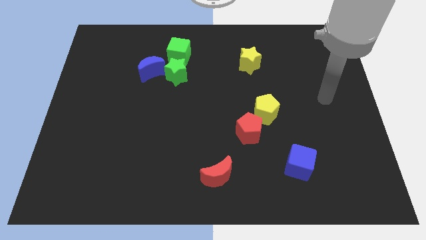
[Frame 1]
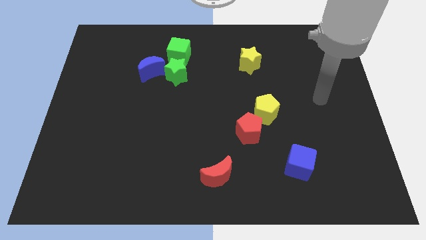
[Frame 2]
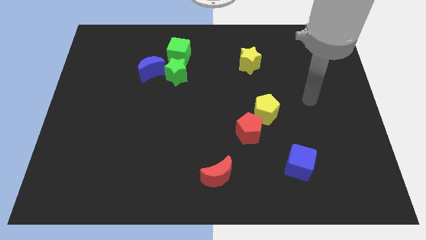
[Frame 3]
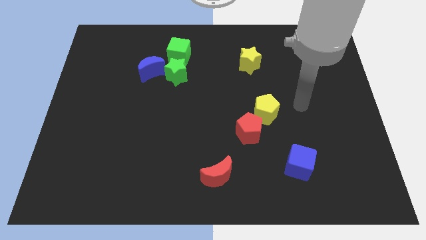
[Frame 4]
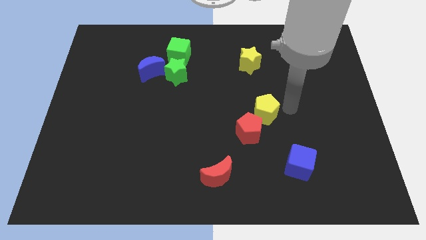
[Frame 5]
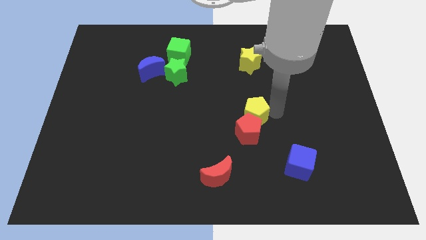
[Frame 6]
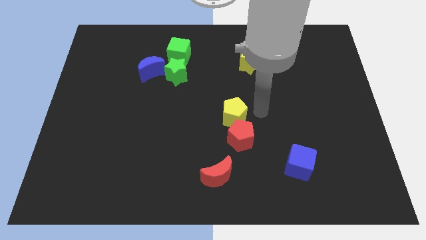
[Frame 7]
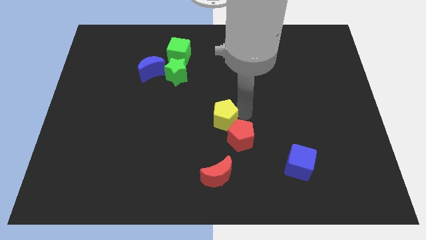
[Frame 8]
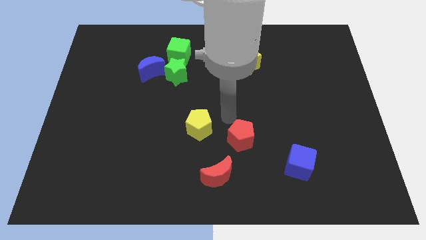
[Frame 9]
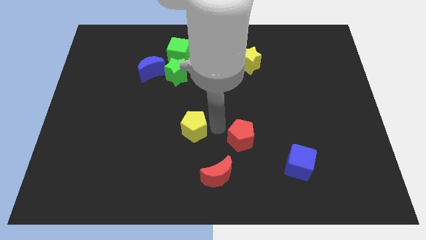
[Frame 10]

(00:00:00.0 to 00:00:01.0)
separate the red pentagon from the yellow pentagon

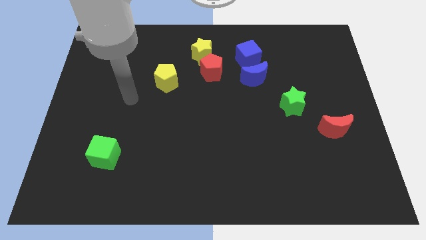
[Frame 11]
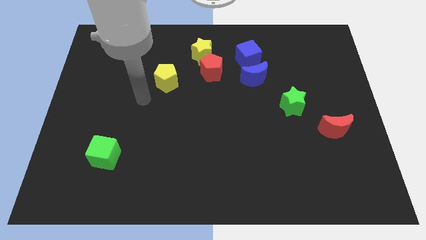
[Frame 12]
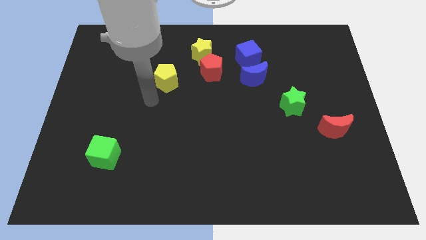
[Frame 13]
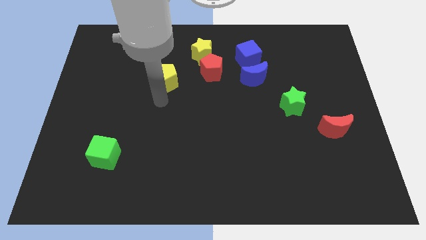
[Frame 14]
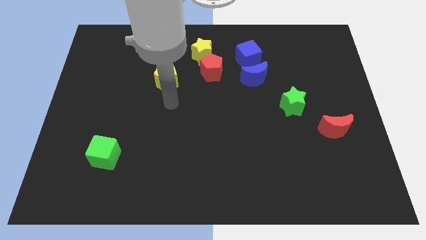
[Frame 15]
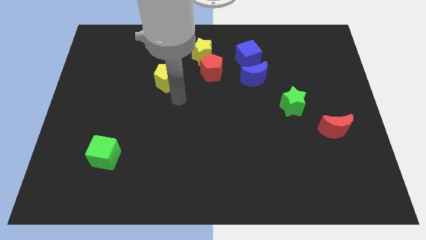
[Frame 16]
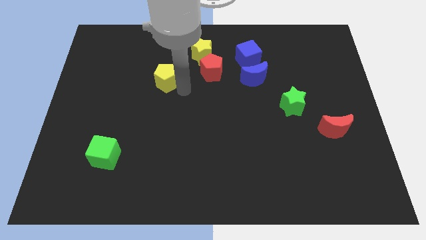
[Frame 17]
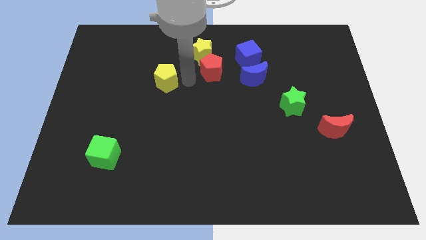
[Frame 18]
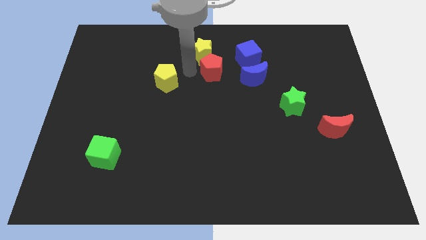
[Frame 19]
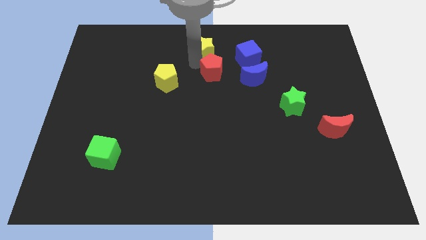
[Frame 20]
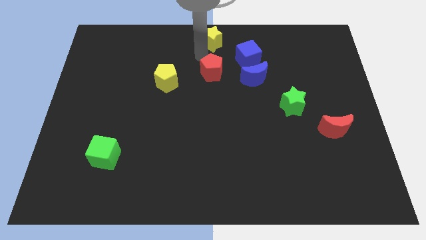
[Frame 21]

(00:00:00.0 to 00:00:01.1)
pull the red pentagon apart from the yellow star

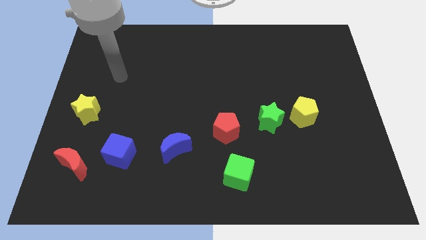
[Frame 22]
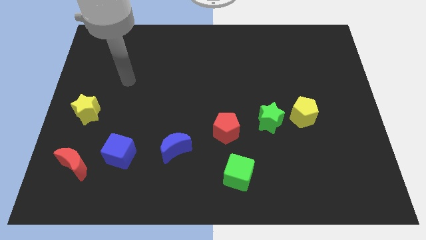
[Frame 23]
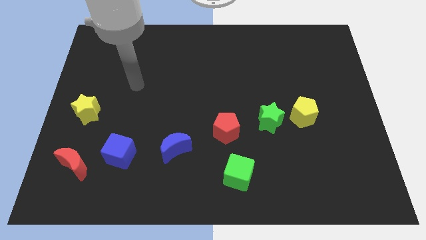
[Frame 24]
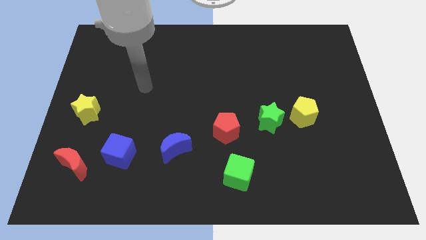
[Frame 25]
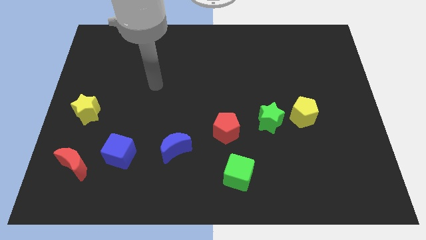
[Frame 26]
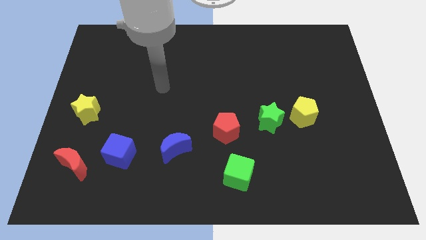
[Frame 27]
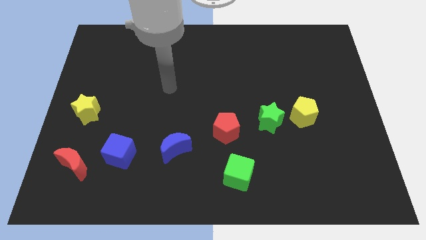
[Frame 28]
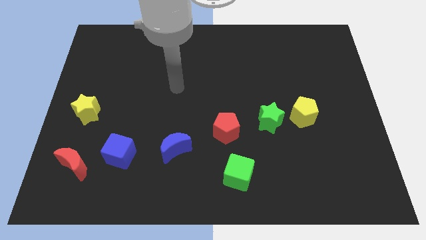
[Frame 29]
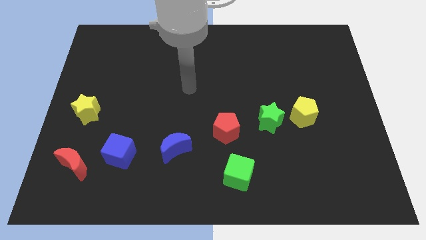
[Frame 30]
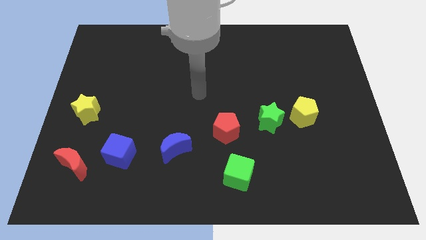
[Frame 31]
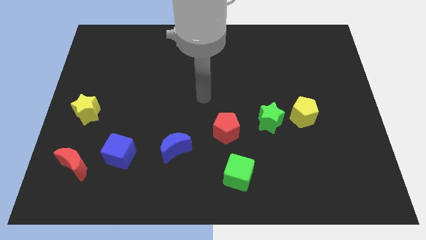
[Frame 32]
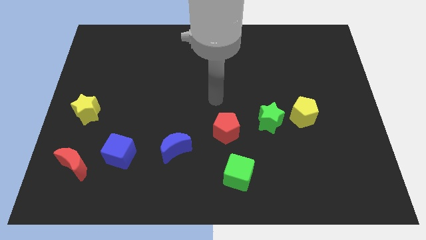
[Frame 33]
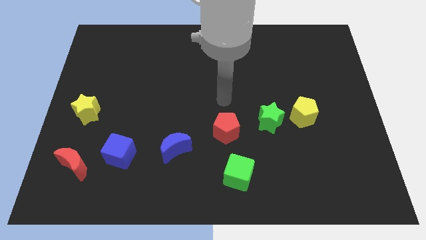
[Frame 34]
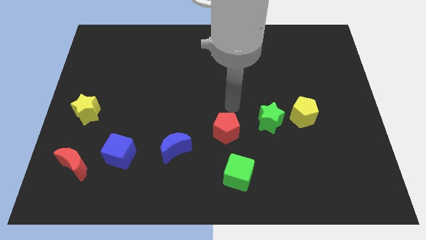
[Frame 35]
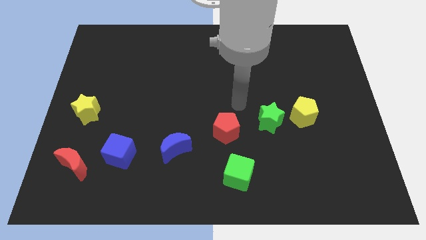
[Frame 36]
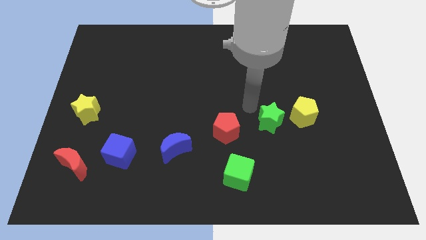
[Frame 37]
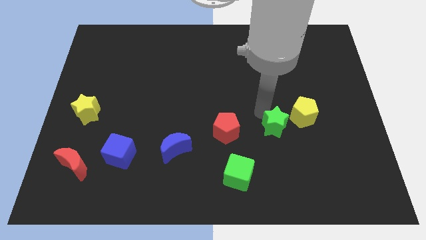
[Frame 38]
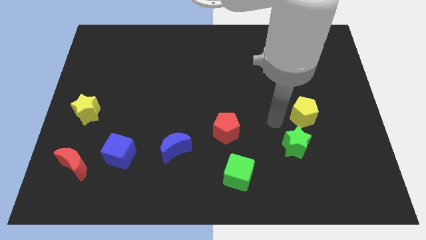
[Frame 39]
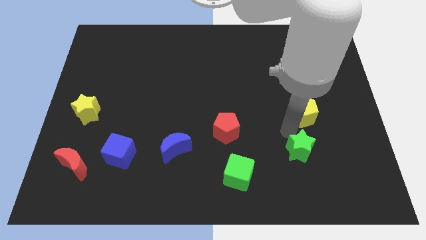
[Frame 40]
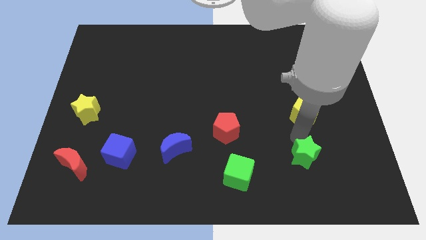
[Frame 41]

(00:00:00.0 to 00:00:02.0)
separate the yellow pentagon from the green star

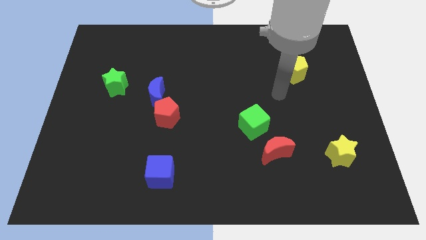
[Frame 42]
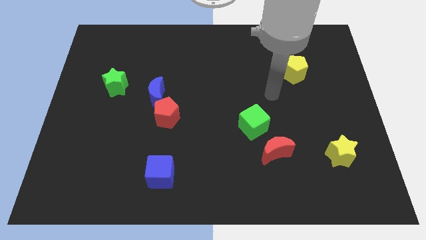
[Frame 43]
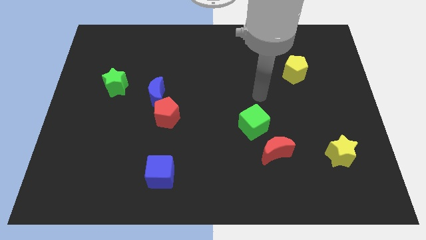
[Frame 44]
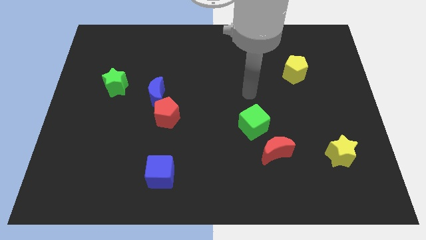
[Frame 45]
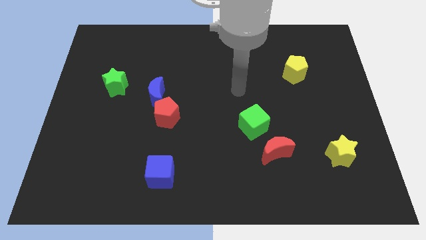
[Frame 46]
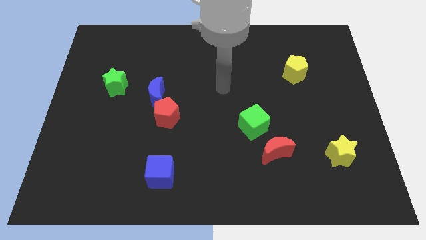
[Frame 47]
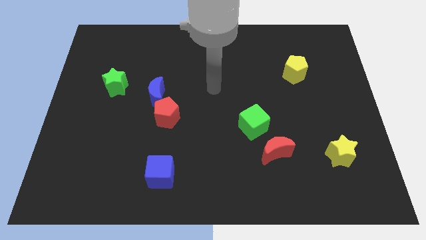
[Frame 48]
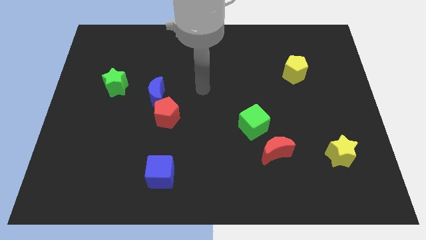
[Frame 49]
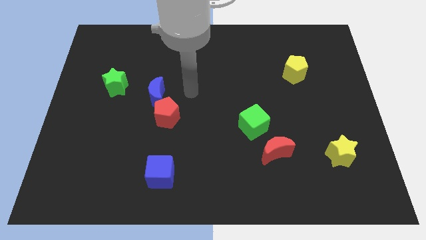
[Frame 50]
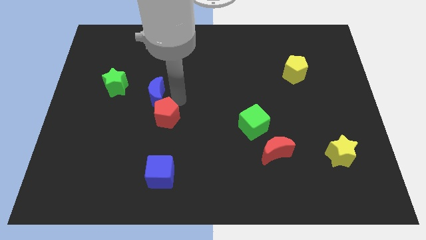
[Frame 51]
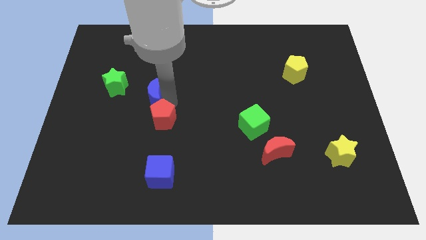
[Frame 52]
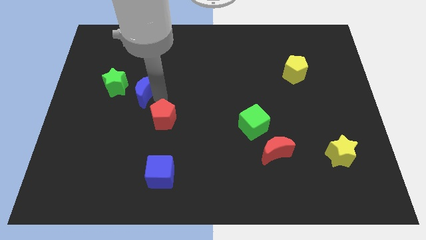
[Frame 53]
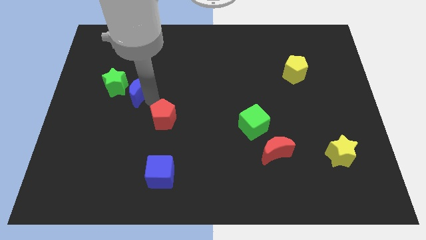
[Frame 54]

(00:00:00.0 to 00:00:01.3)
move the red pentagon away from the blue moon

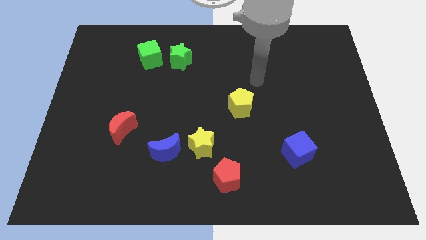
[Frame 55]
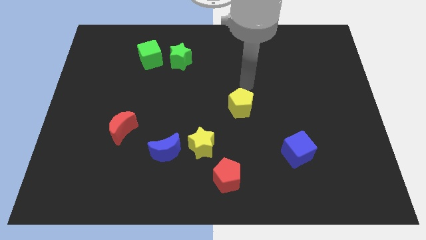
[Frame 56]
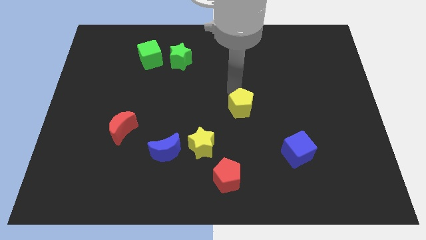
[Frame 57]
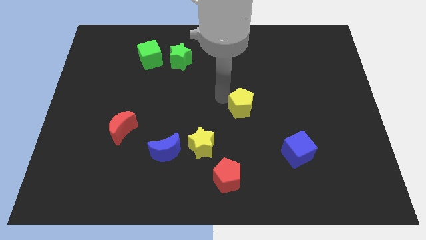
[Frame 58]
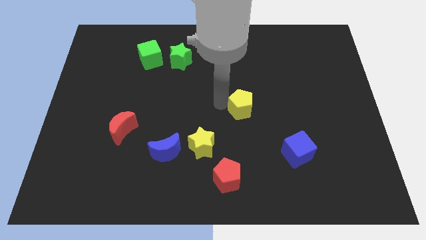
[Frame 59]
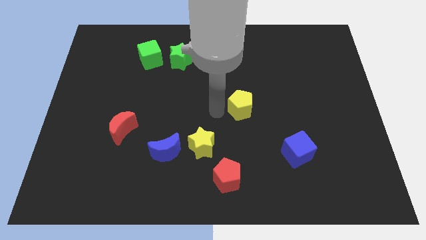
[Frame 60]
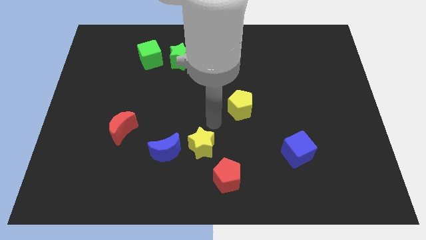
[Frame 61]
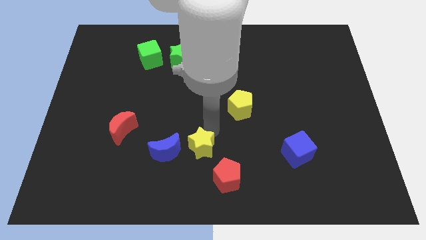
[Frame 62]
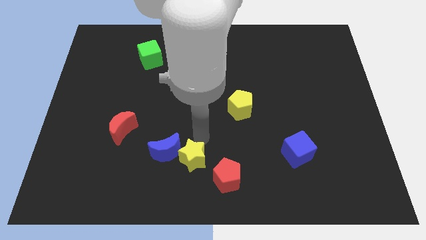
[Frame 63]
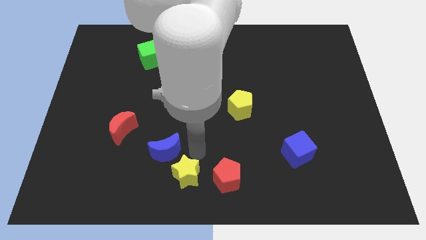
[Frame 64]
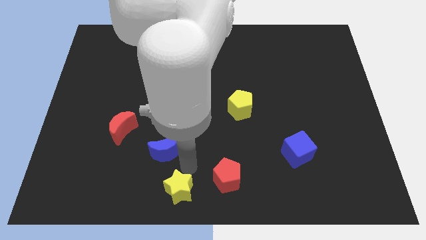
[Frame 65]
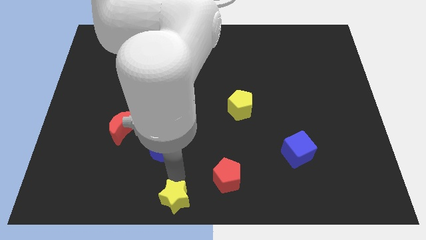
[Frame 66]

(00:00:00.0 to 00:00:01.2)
move the blue moon away from the yellow star

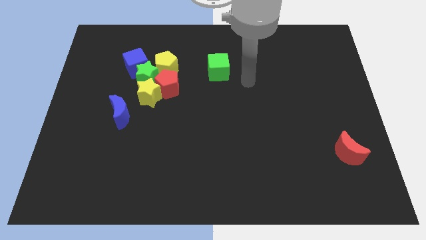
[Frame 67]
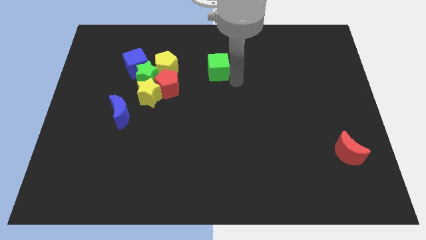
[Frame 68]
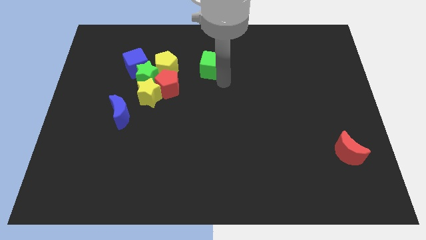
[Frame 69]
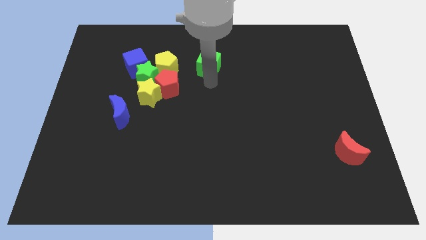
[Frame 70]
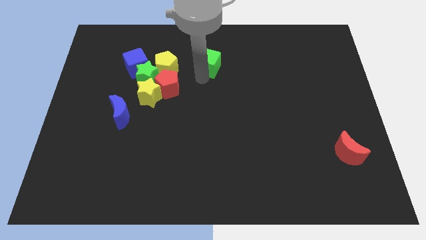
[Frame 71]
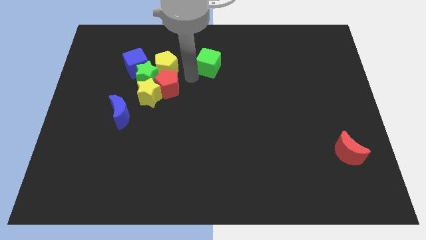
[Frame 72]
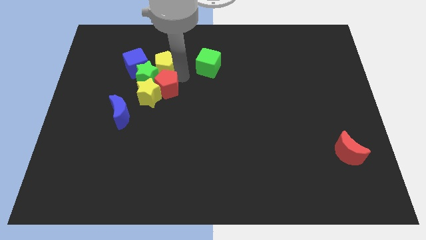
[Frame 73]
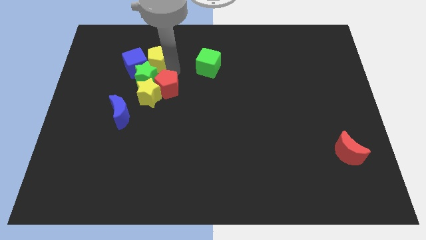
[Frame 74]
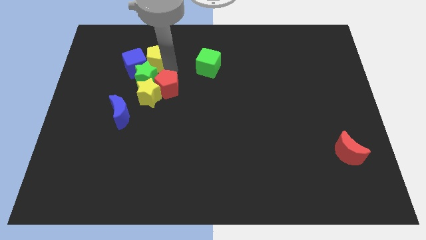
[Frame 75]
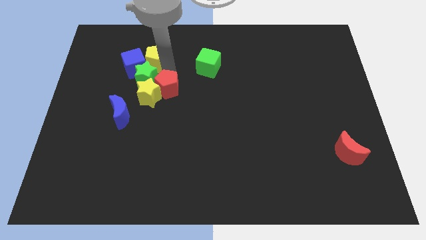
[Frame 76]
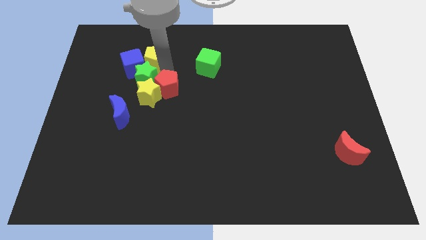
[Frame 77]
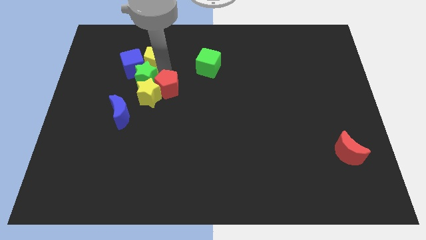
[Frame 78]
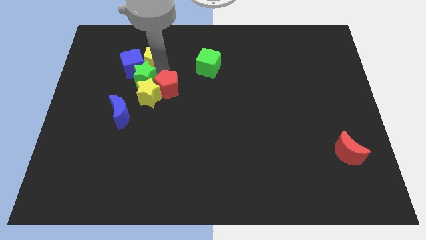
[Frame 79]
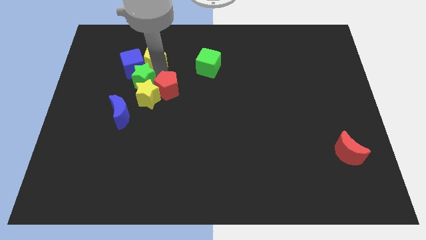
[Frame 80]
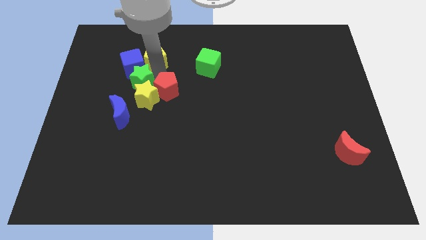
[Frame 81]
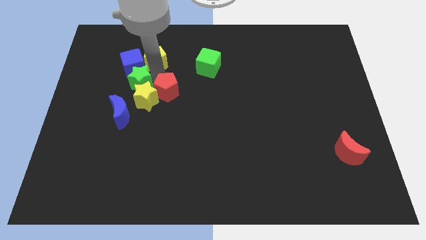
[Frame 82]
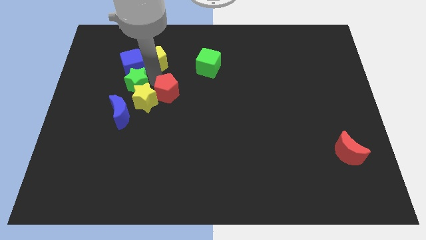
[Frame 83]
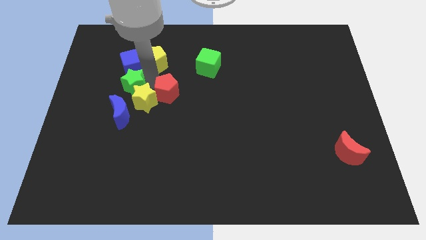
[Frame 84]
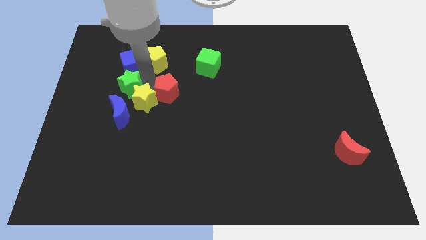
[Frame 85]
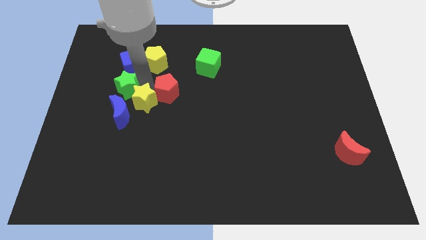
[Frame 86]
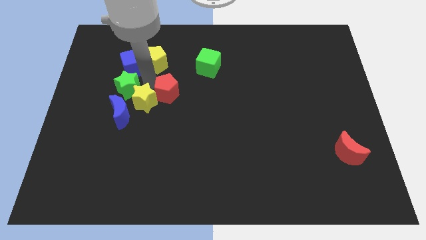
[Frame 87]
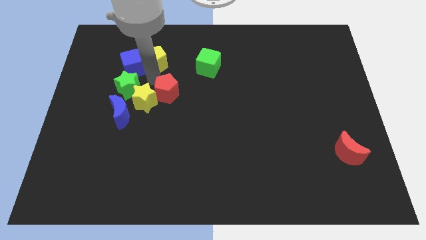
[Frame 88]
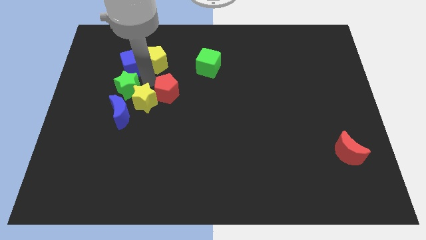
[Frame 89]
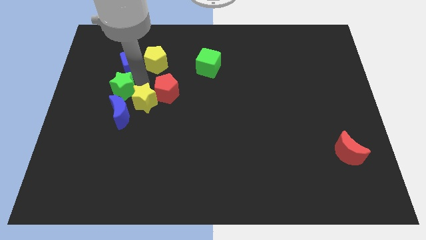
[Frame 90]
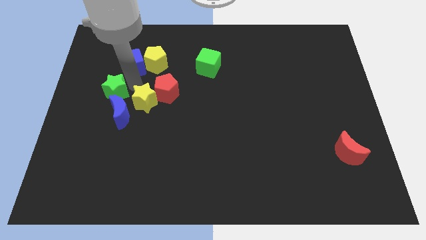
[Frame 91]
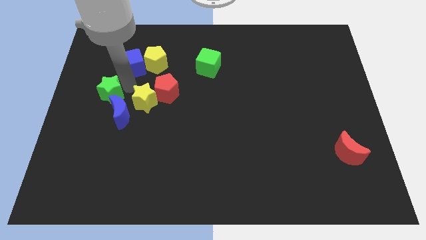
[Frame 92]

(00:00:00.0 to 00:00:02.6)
pull the green star apart from the clump
